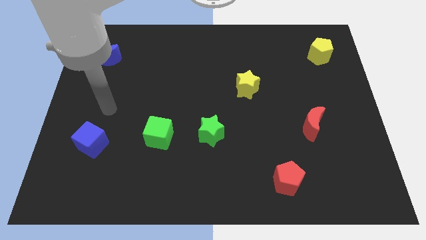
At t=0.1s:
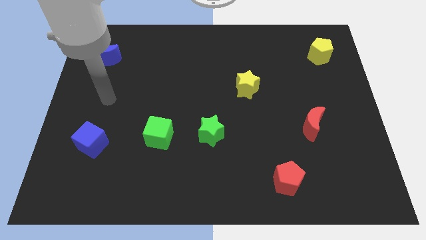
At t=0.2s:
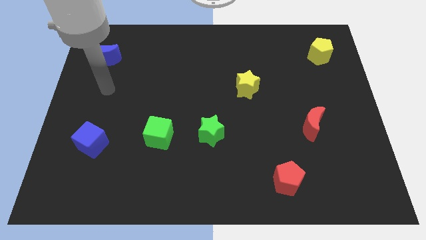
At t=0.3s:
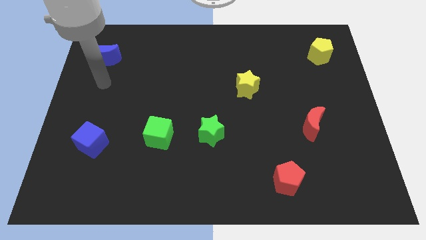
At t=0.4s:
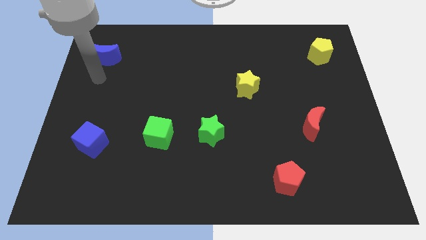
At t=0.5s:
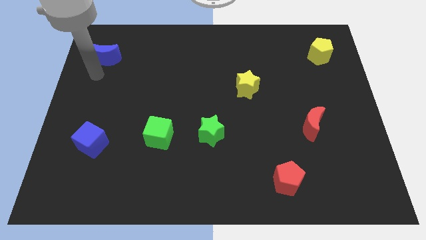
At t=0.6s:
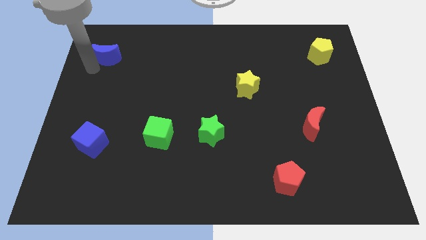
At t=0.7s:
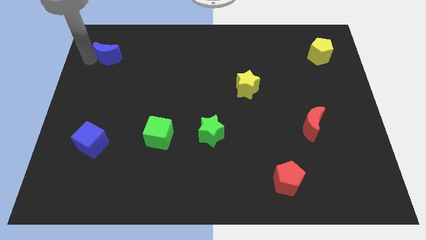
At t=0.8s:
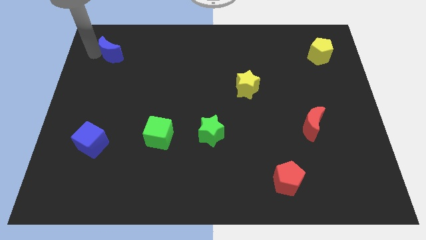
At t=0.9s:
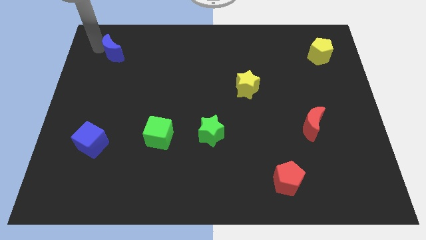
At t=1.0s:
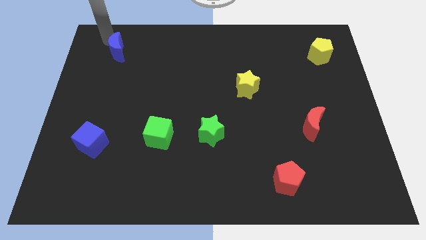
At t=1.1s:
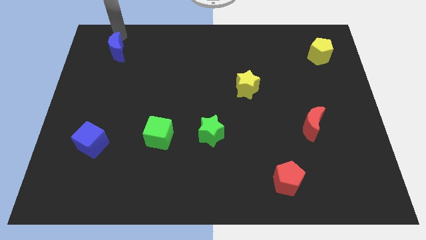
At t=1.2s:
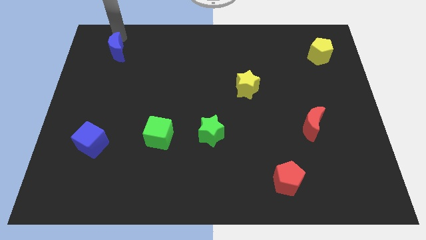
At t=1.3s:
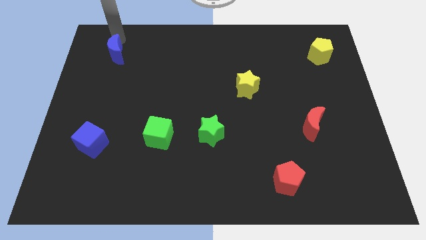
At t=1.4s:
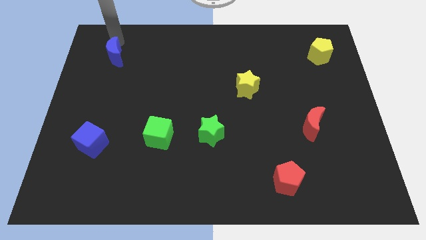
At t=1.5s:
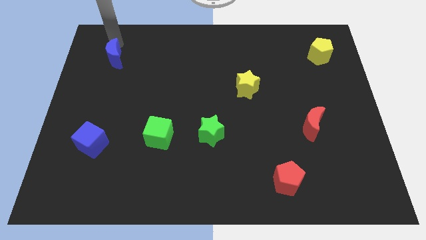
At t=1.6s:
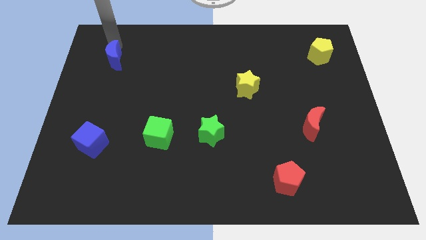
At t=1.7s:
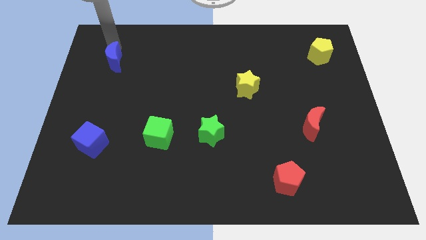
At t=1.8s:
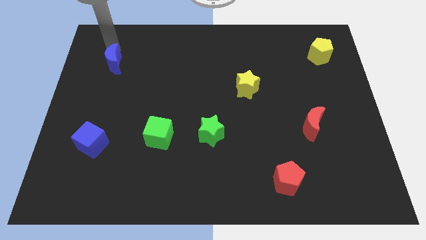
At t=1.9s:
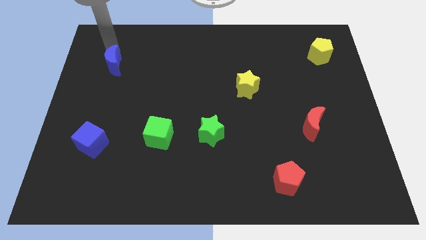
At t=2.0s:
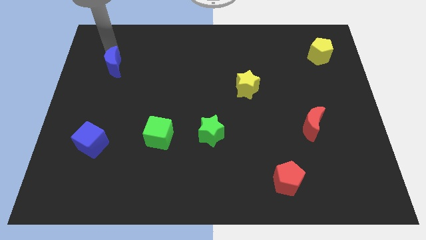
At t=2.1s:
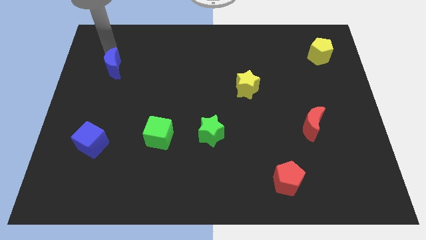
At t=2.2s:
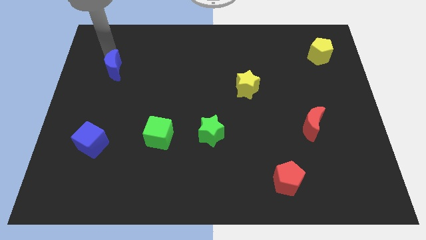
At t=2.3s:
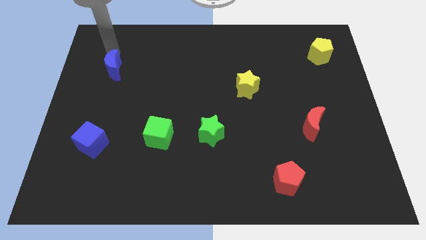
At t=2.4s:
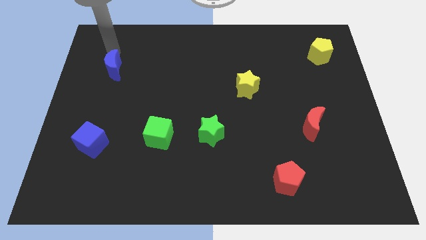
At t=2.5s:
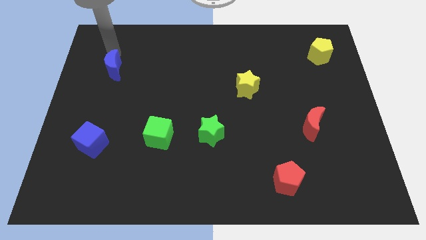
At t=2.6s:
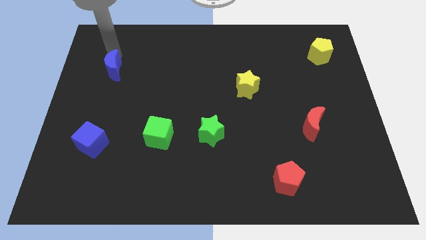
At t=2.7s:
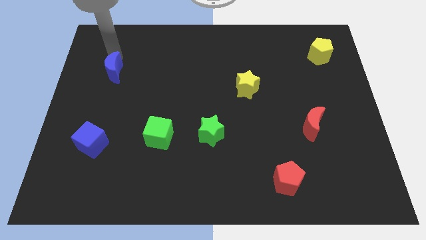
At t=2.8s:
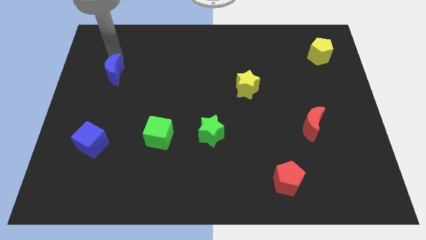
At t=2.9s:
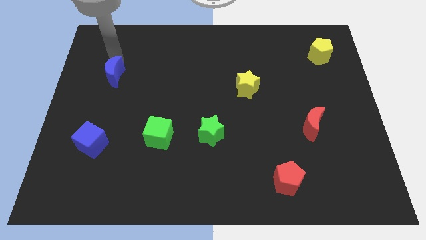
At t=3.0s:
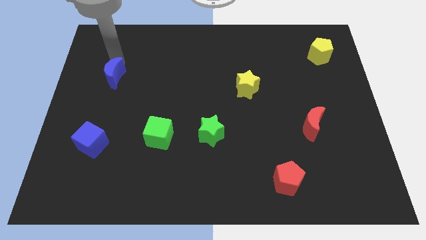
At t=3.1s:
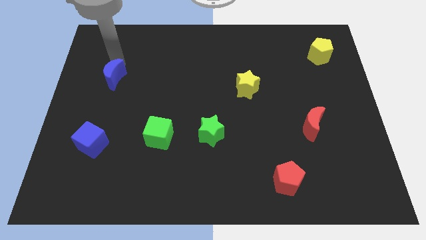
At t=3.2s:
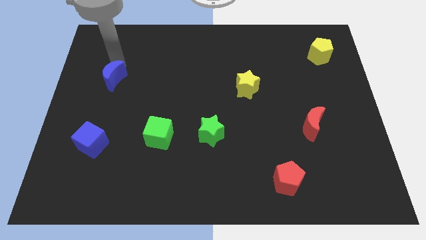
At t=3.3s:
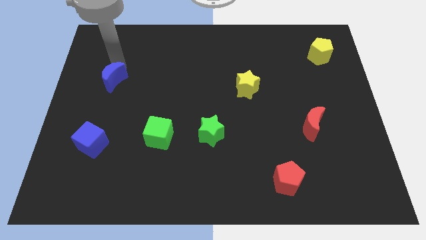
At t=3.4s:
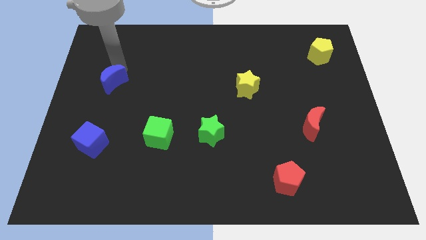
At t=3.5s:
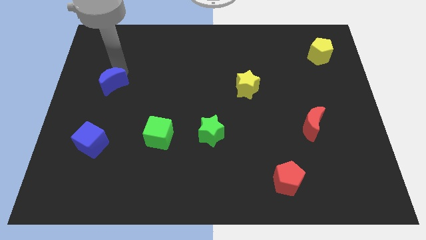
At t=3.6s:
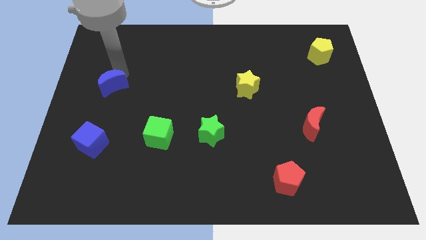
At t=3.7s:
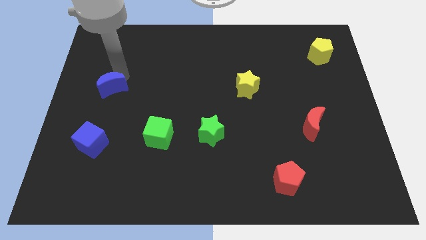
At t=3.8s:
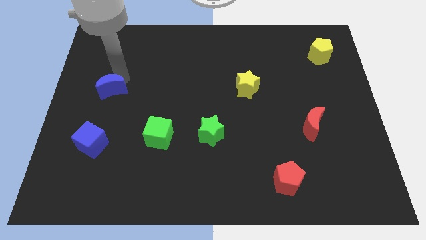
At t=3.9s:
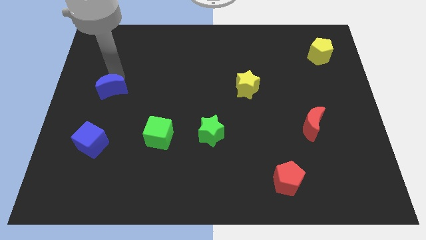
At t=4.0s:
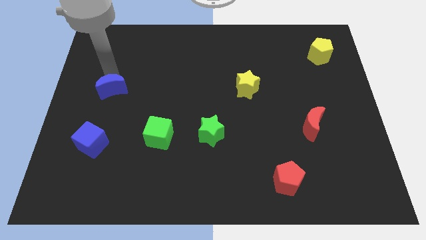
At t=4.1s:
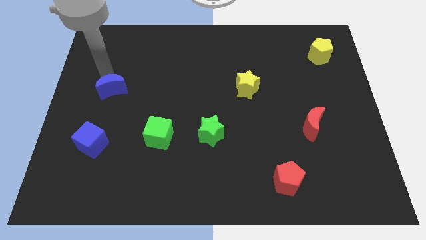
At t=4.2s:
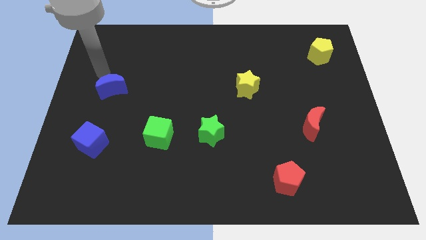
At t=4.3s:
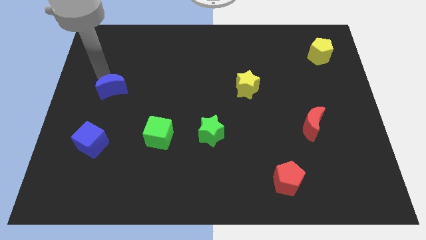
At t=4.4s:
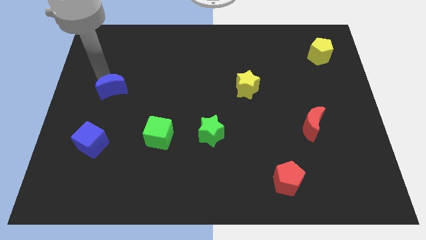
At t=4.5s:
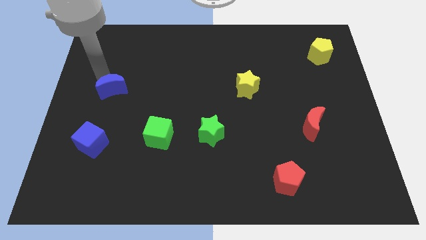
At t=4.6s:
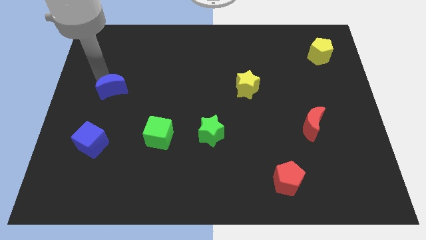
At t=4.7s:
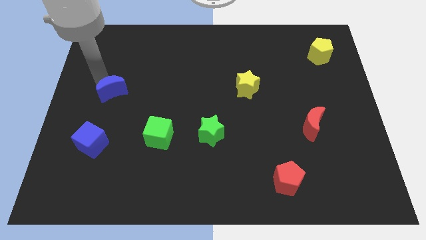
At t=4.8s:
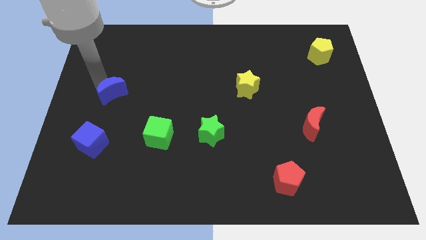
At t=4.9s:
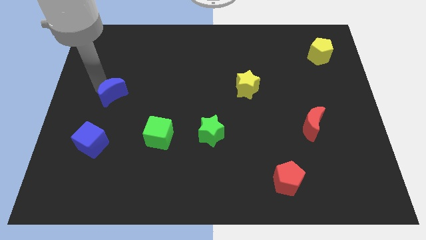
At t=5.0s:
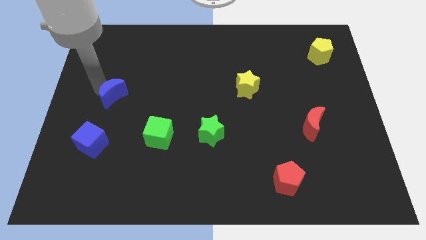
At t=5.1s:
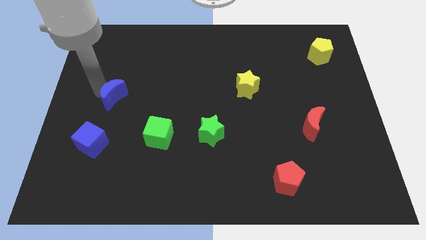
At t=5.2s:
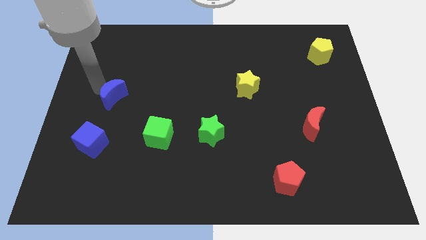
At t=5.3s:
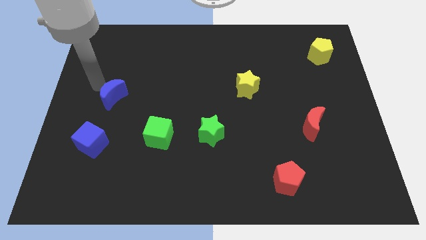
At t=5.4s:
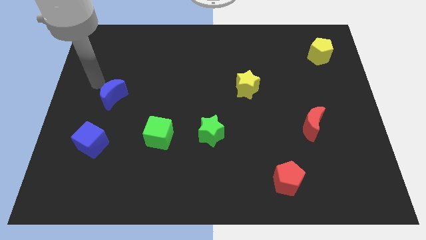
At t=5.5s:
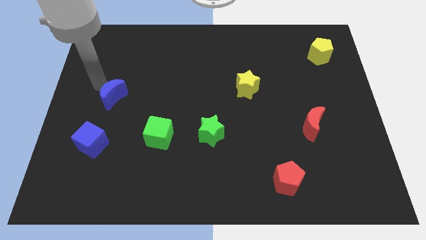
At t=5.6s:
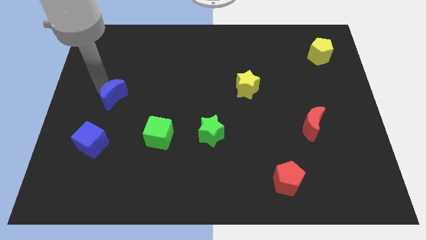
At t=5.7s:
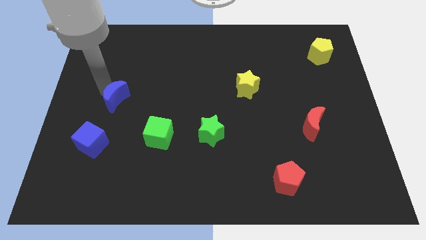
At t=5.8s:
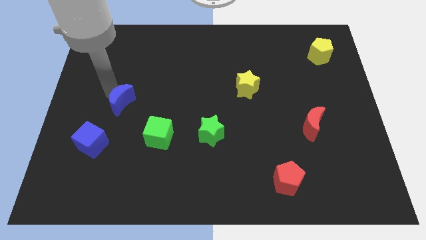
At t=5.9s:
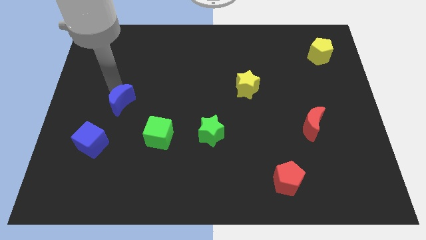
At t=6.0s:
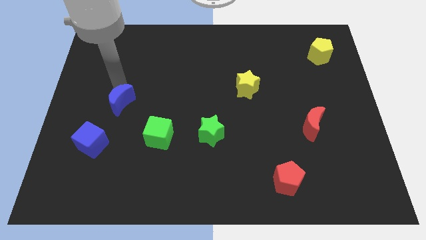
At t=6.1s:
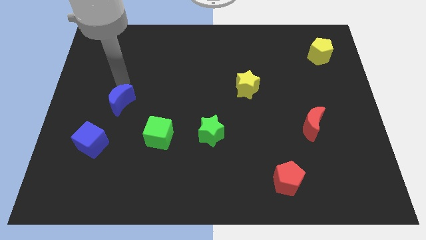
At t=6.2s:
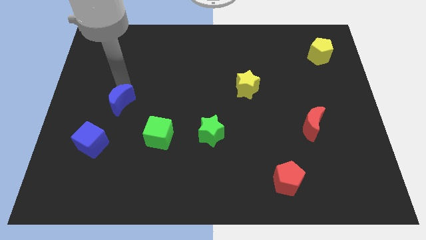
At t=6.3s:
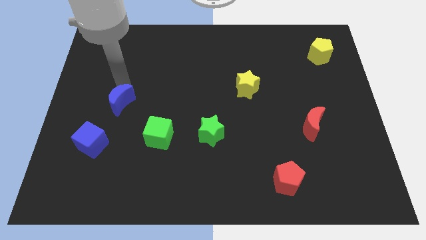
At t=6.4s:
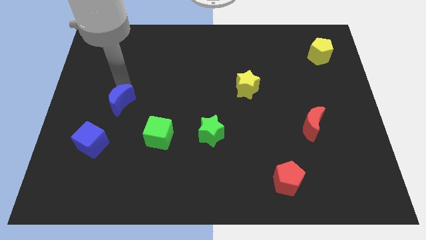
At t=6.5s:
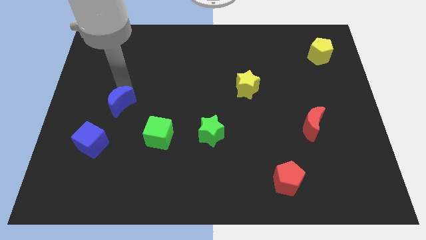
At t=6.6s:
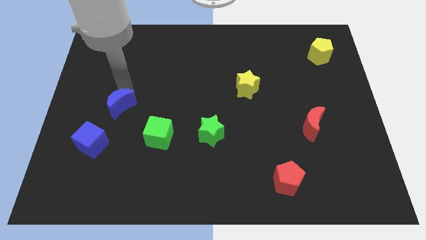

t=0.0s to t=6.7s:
slide the blue moon to the top right of the blue cube
